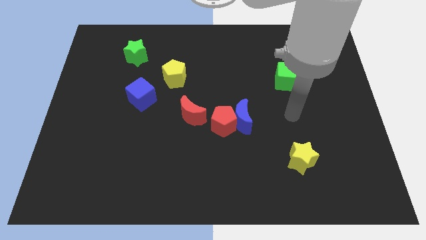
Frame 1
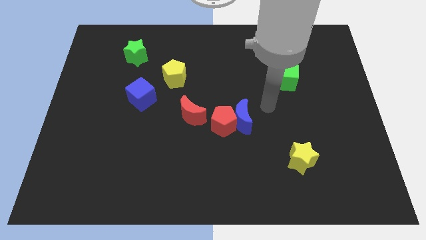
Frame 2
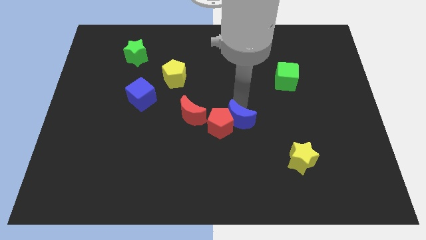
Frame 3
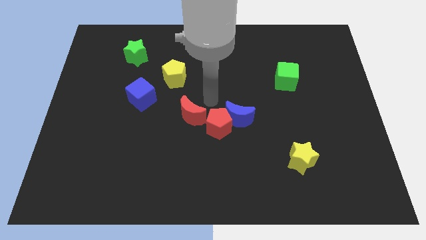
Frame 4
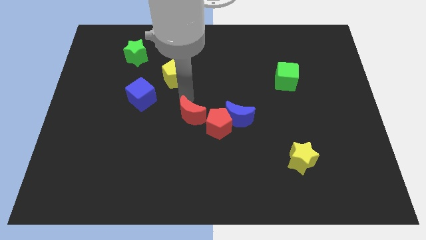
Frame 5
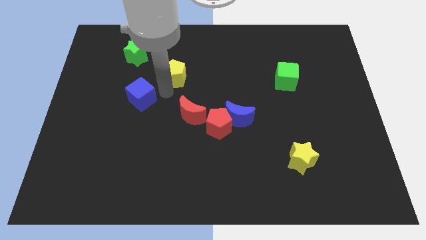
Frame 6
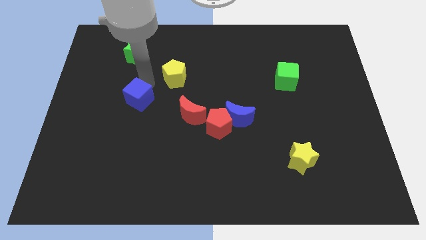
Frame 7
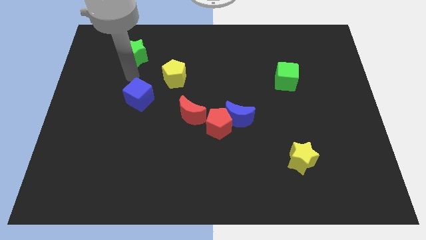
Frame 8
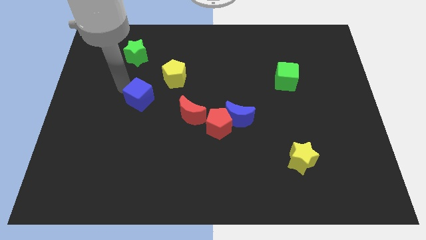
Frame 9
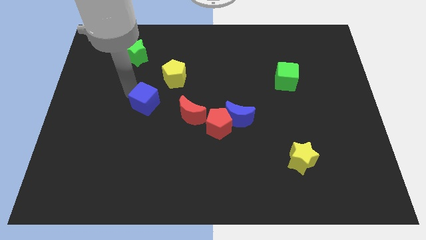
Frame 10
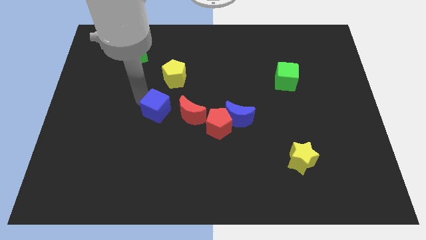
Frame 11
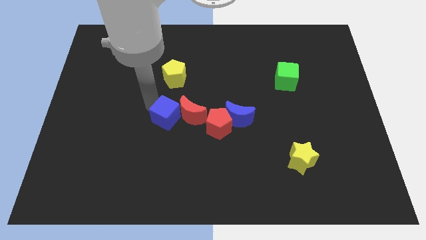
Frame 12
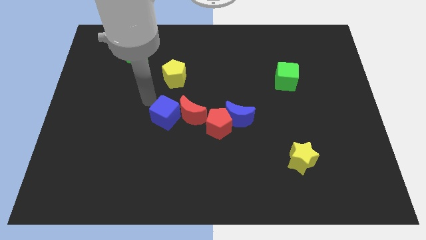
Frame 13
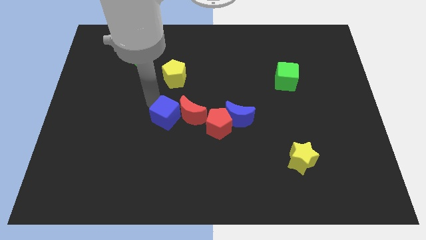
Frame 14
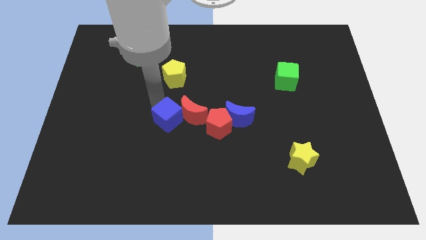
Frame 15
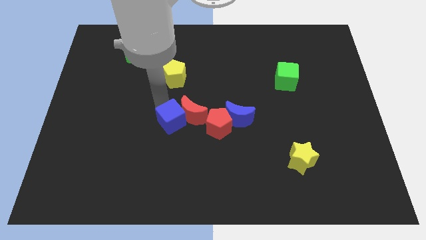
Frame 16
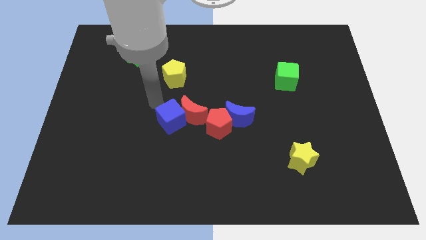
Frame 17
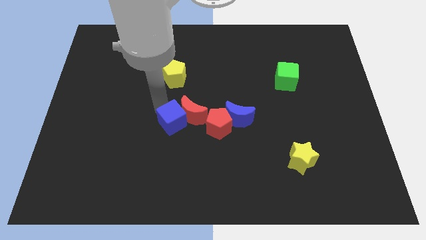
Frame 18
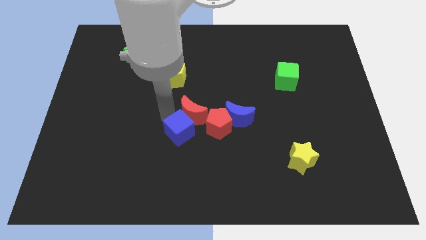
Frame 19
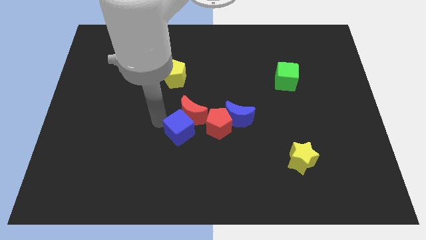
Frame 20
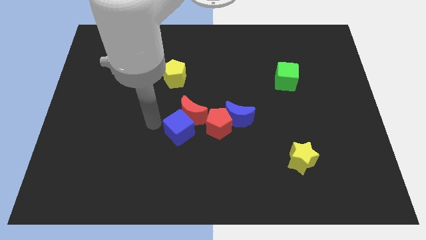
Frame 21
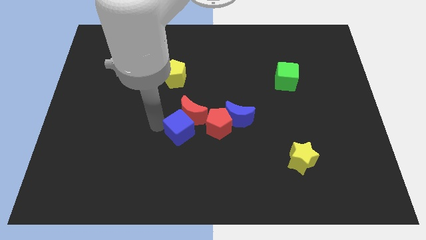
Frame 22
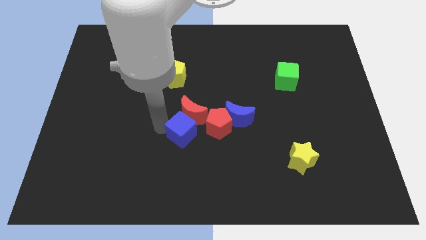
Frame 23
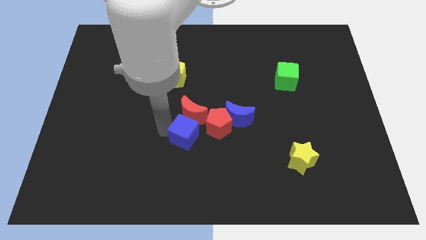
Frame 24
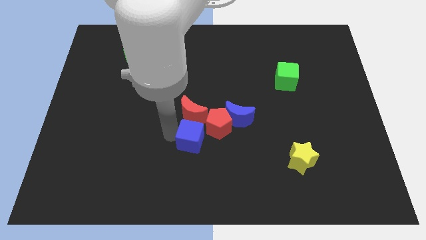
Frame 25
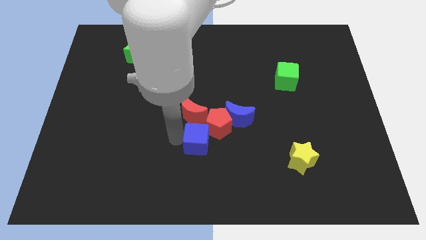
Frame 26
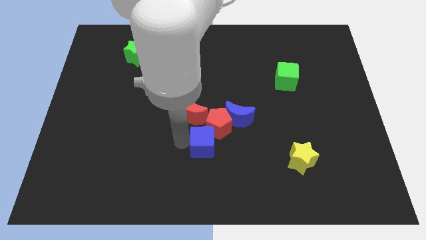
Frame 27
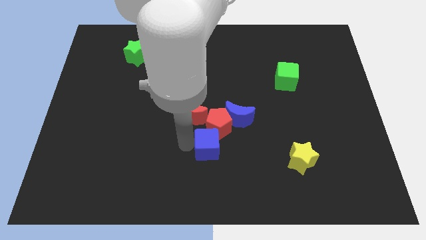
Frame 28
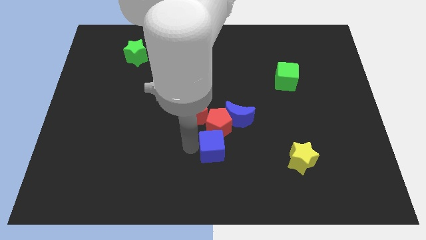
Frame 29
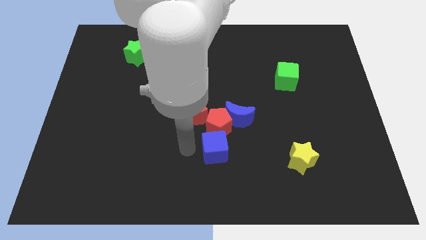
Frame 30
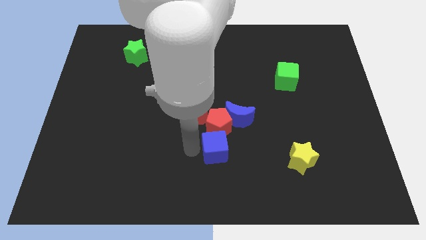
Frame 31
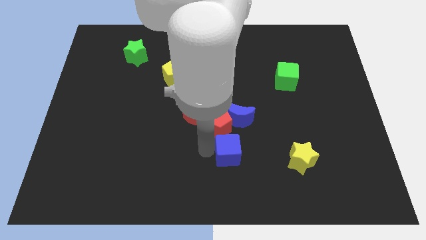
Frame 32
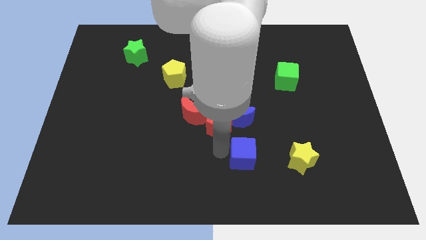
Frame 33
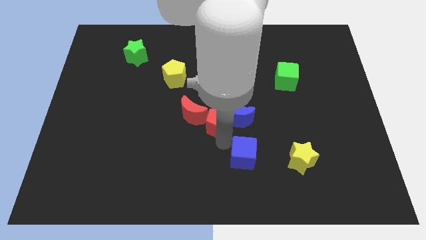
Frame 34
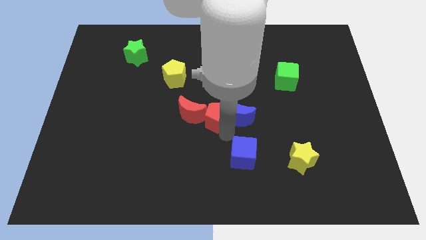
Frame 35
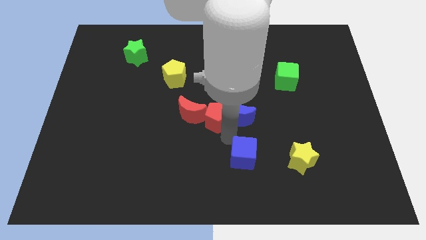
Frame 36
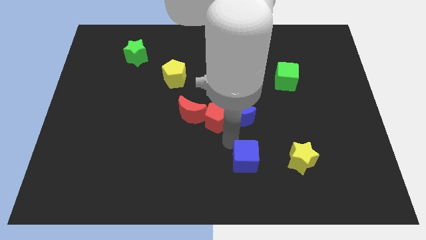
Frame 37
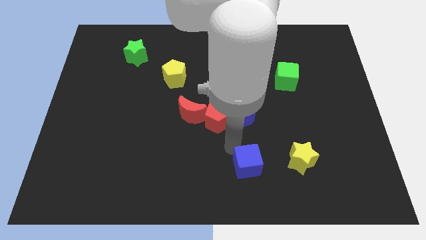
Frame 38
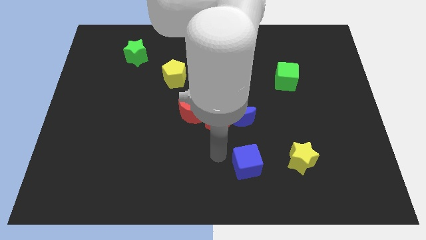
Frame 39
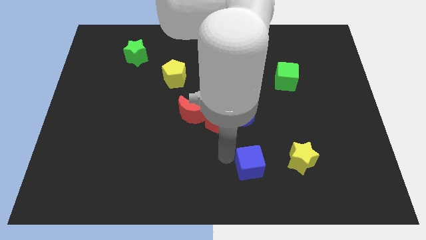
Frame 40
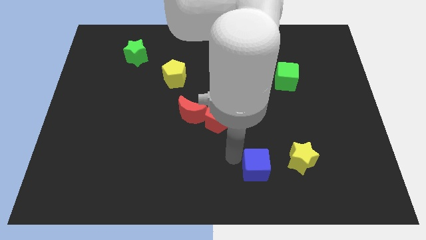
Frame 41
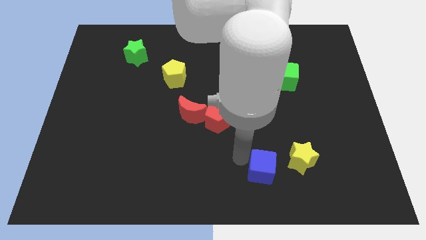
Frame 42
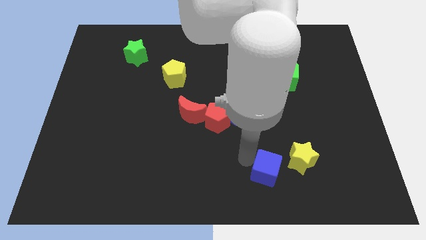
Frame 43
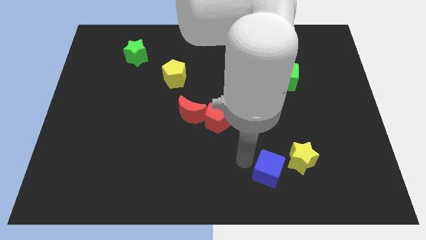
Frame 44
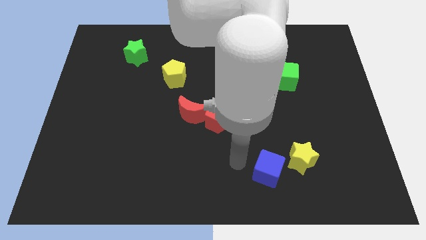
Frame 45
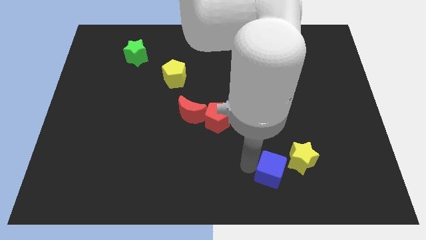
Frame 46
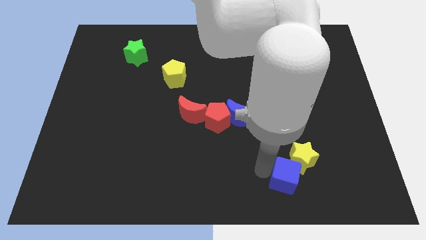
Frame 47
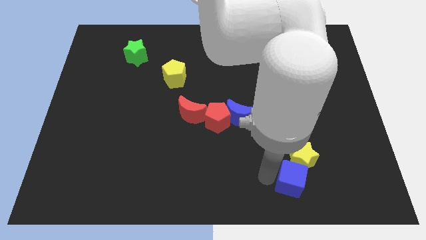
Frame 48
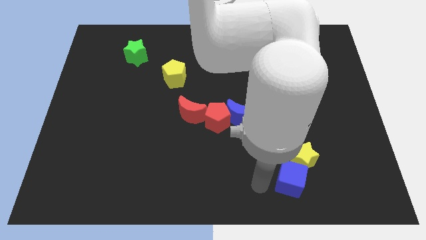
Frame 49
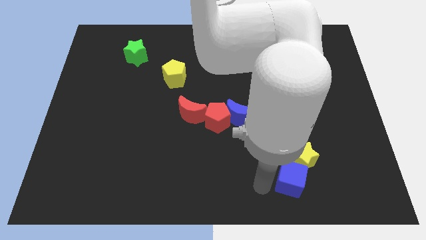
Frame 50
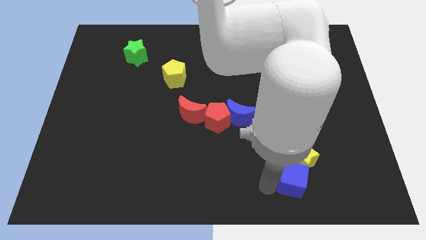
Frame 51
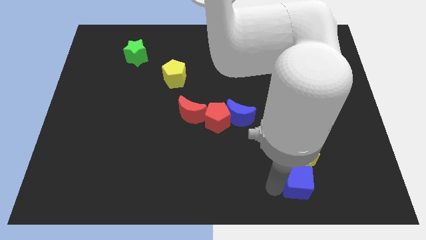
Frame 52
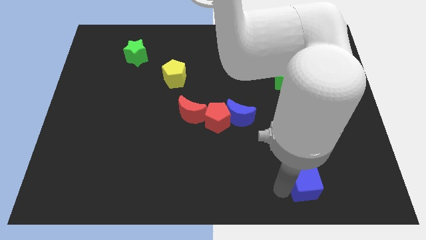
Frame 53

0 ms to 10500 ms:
push the blue cube to the bottom right side of the yellow star

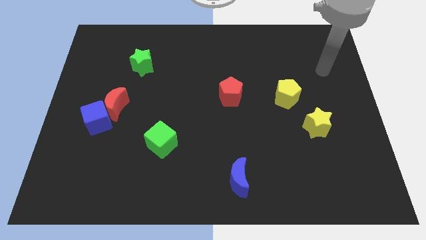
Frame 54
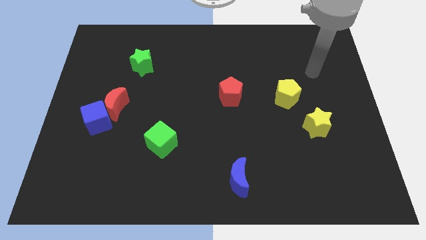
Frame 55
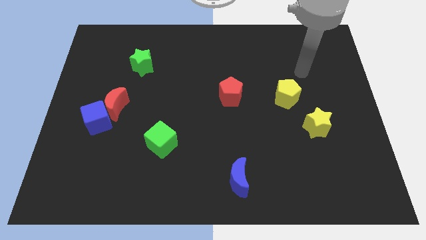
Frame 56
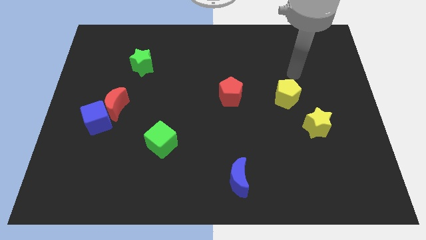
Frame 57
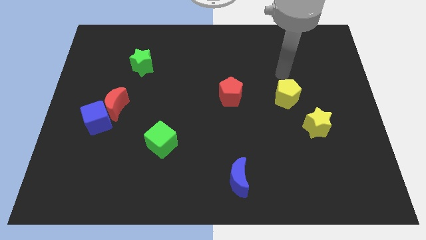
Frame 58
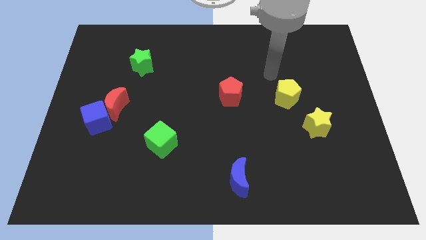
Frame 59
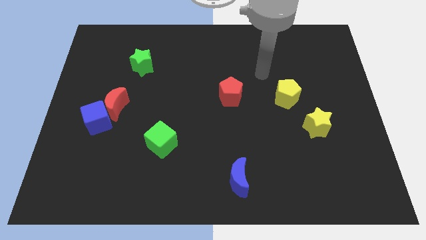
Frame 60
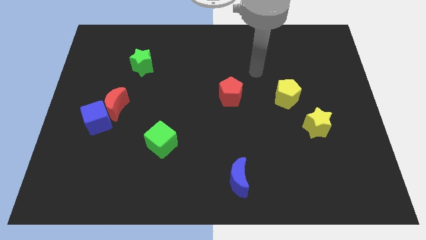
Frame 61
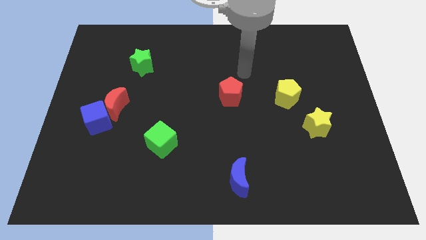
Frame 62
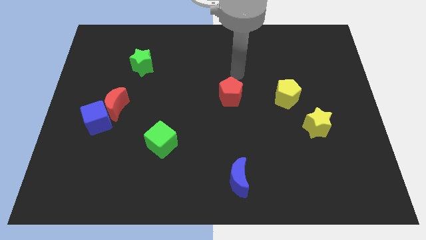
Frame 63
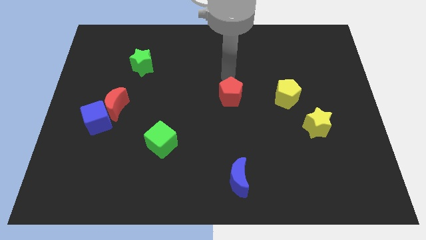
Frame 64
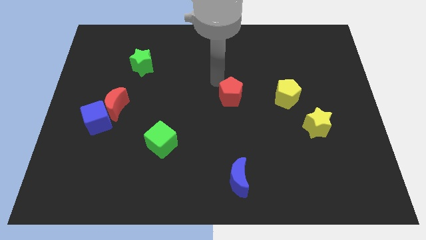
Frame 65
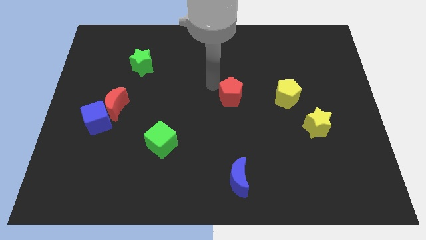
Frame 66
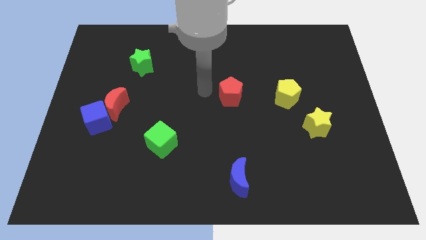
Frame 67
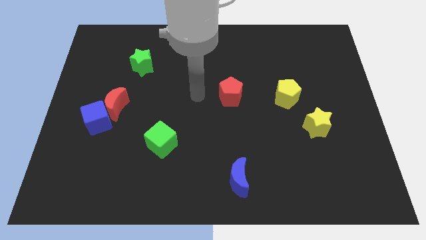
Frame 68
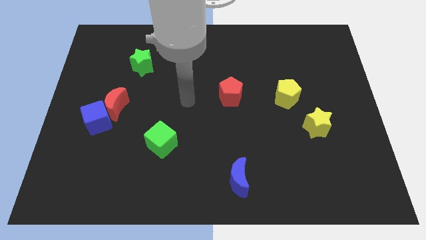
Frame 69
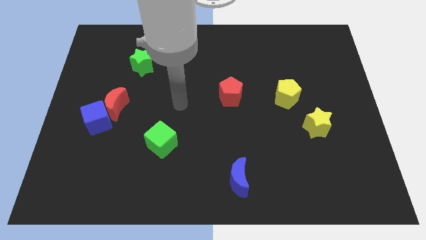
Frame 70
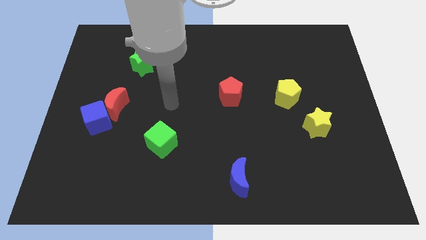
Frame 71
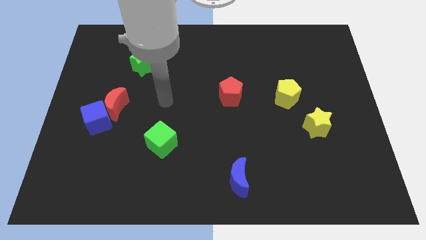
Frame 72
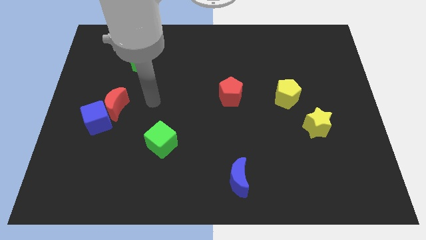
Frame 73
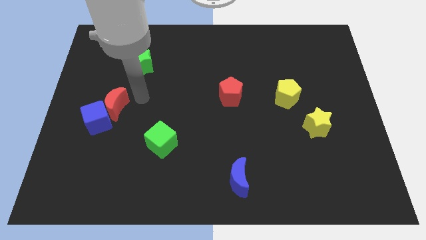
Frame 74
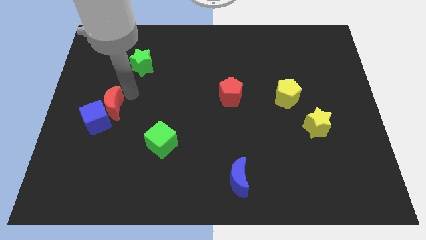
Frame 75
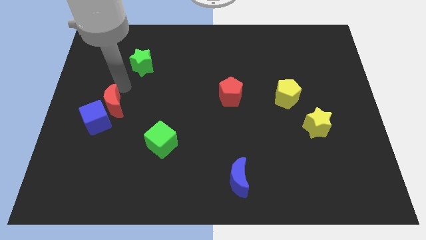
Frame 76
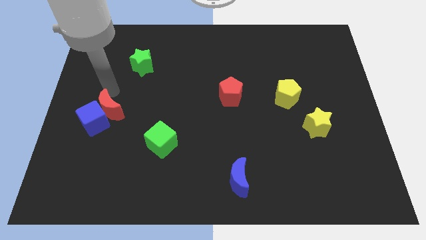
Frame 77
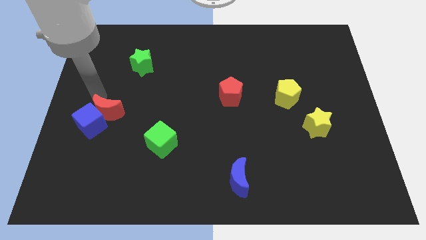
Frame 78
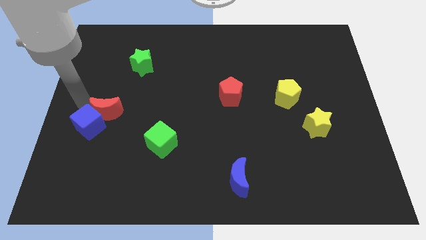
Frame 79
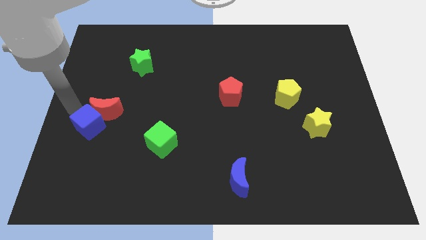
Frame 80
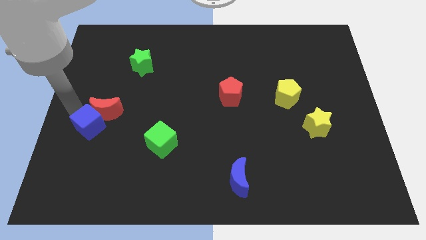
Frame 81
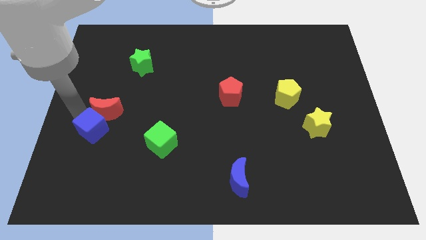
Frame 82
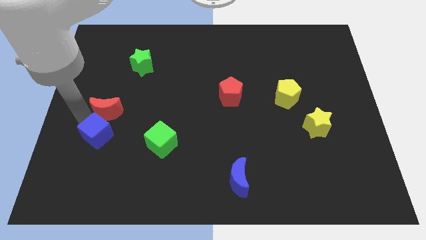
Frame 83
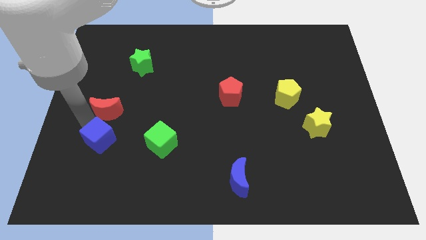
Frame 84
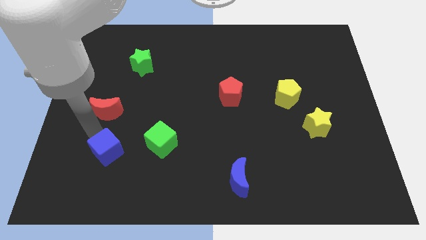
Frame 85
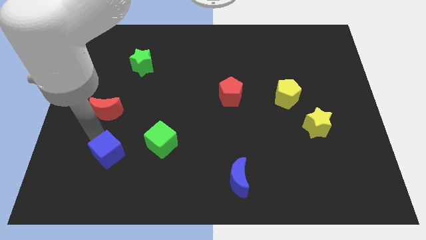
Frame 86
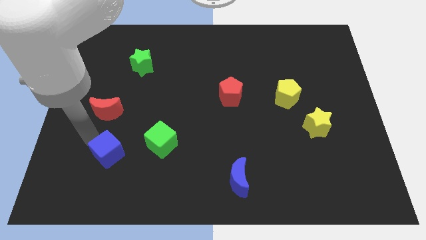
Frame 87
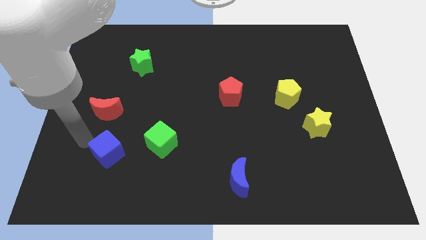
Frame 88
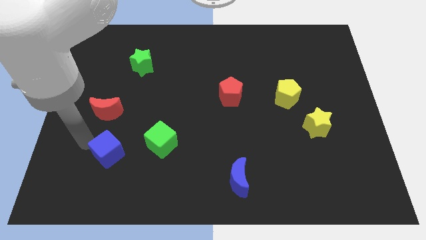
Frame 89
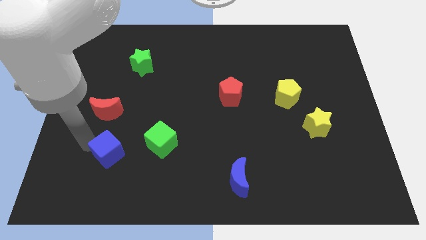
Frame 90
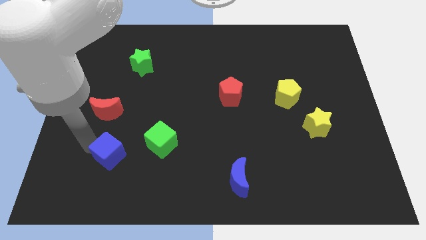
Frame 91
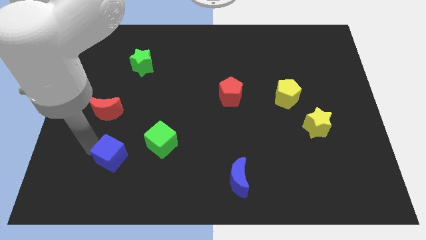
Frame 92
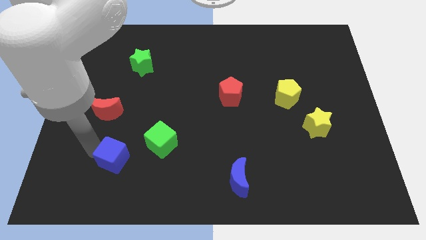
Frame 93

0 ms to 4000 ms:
move the blue cube to the bottom left side of the green cube
